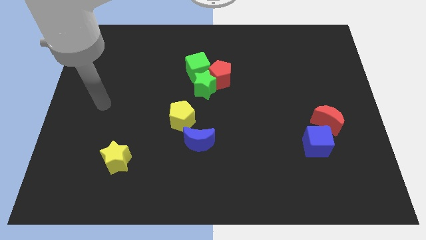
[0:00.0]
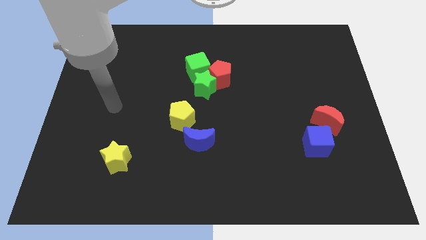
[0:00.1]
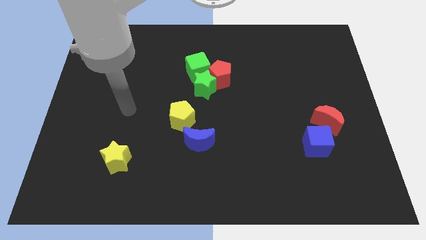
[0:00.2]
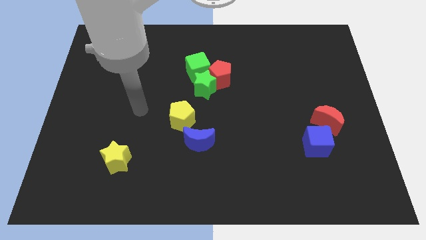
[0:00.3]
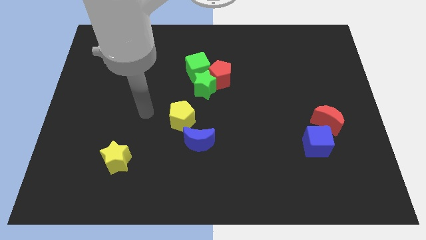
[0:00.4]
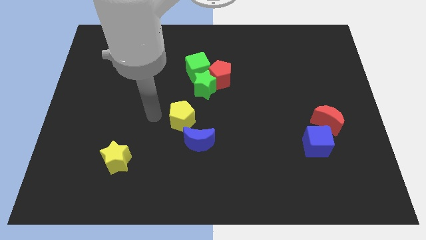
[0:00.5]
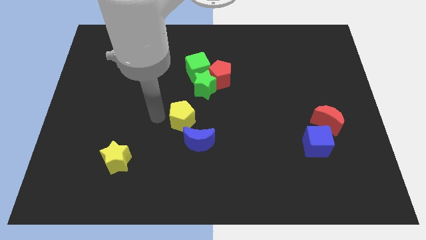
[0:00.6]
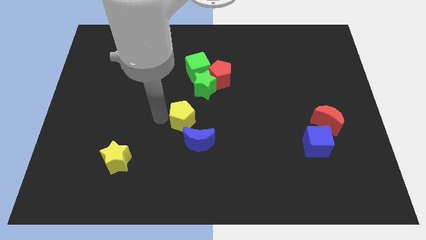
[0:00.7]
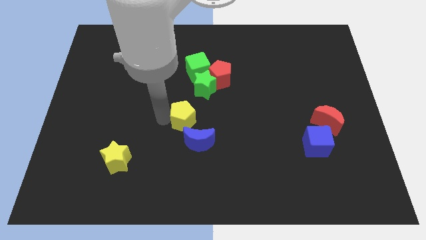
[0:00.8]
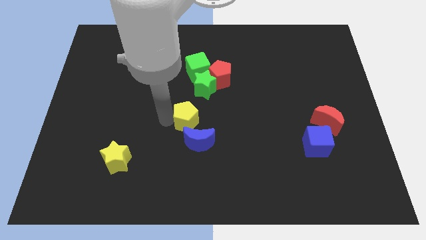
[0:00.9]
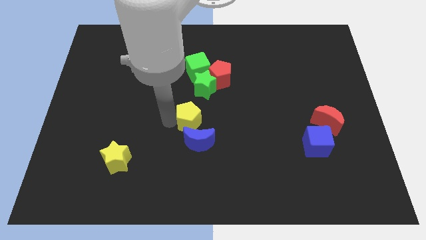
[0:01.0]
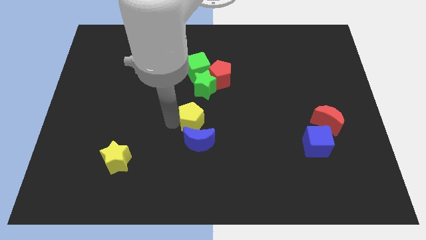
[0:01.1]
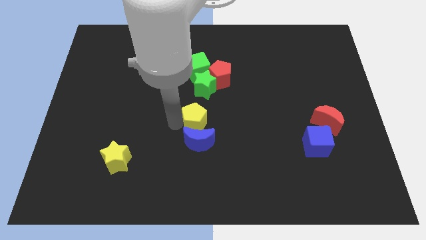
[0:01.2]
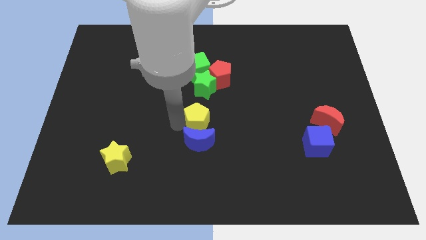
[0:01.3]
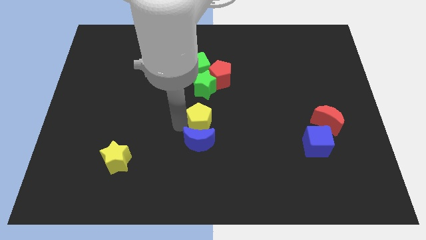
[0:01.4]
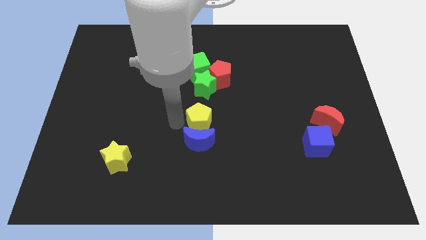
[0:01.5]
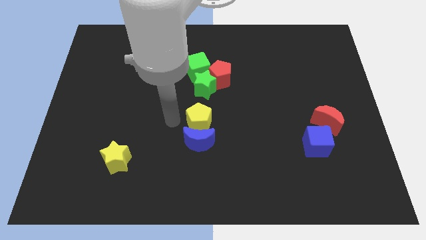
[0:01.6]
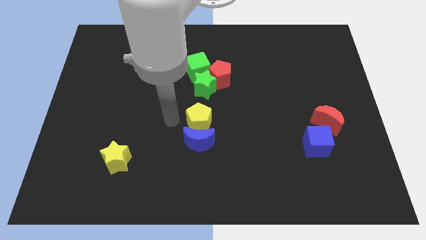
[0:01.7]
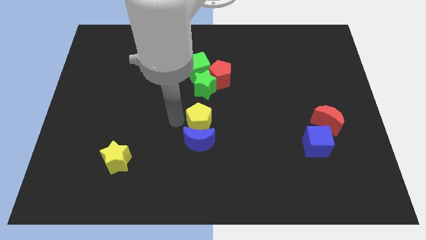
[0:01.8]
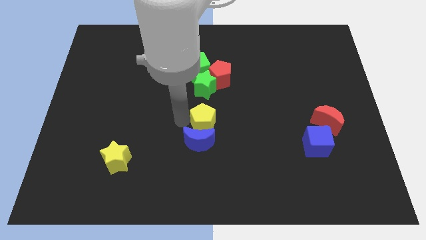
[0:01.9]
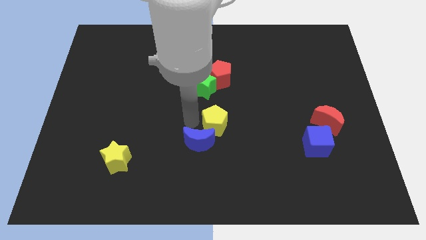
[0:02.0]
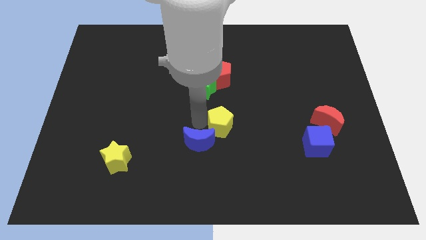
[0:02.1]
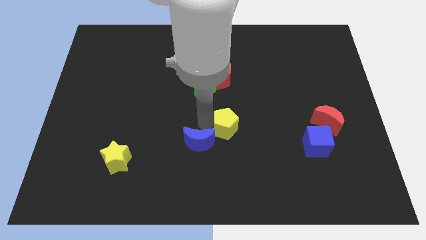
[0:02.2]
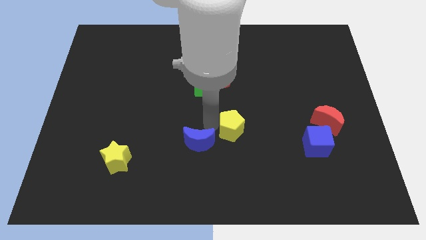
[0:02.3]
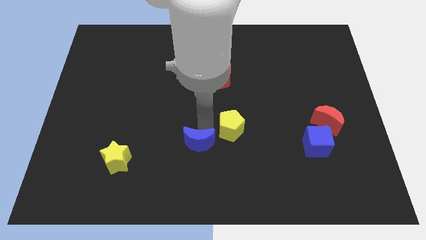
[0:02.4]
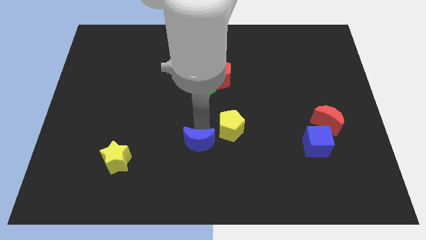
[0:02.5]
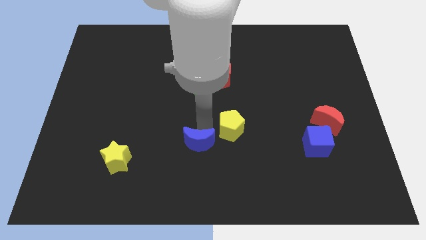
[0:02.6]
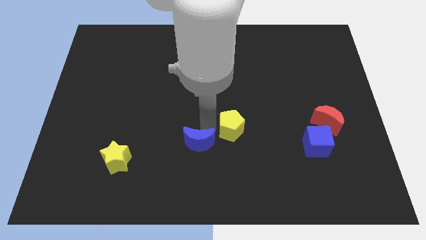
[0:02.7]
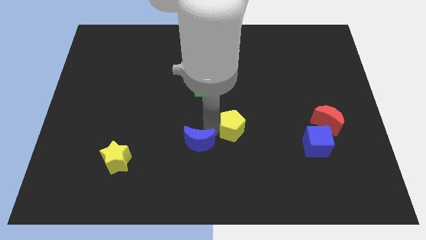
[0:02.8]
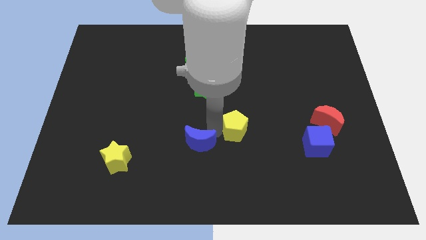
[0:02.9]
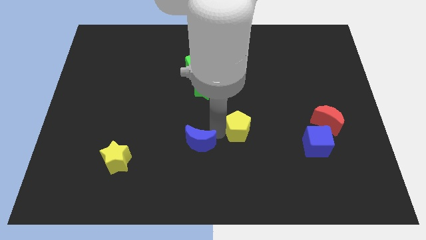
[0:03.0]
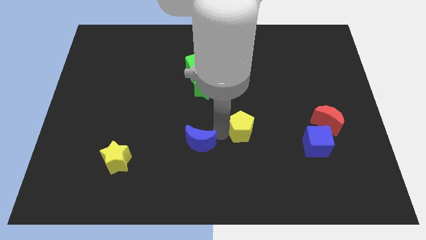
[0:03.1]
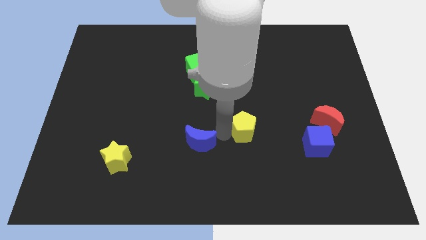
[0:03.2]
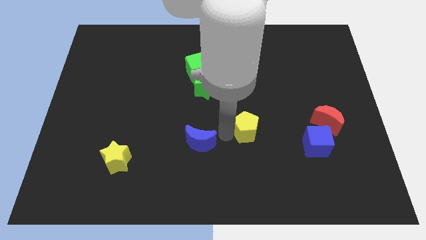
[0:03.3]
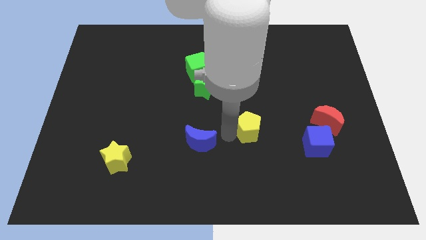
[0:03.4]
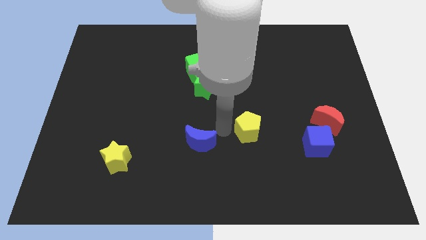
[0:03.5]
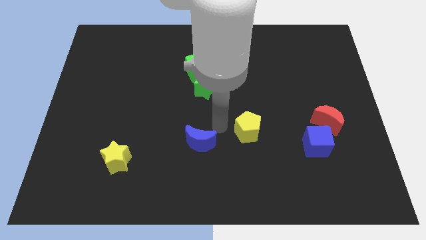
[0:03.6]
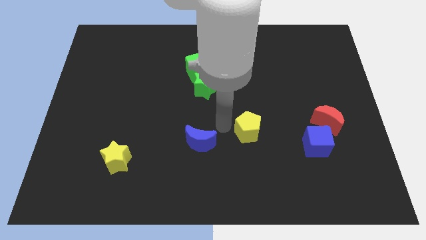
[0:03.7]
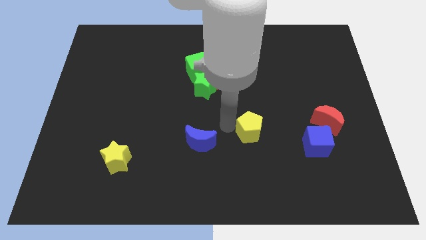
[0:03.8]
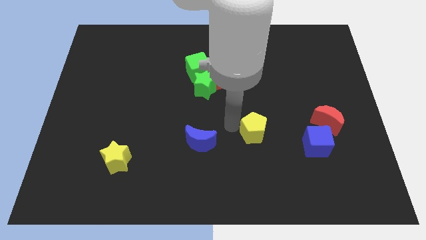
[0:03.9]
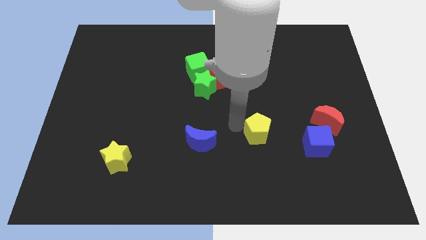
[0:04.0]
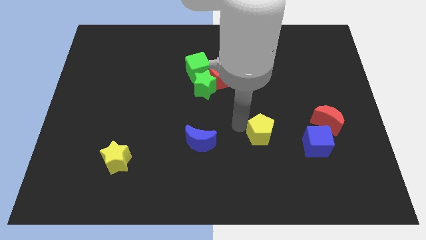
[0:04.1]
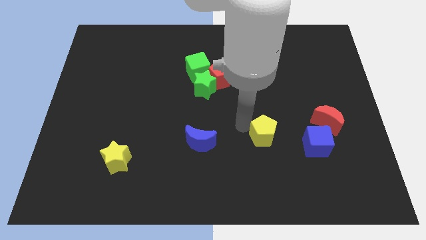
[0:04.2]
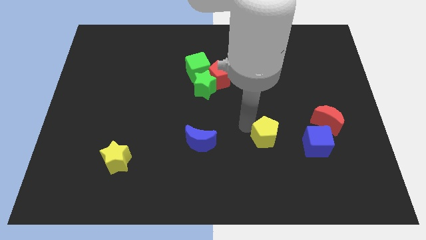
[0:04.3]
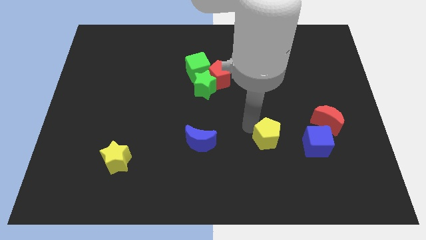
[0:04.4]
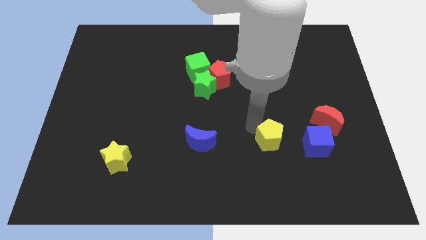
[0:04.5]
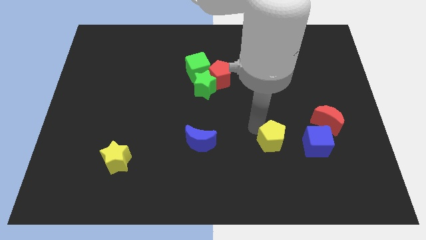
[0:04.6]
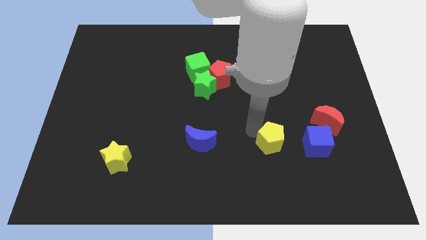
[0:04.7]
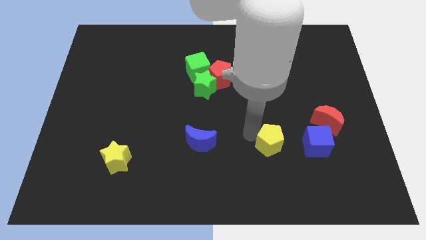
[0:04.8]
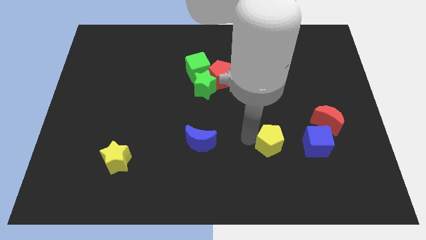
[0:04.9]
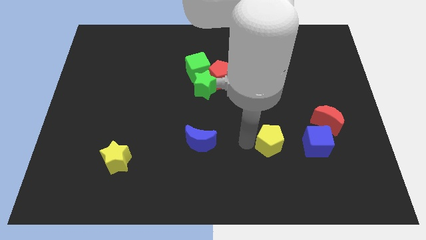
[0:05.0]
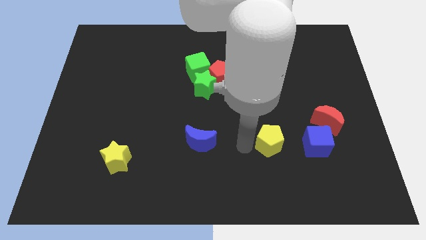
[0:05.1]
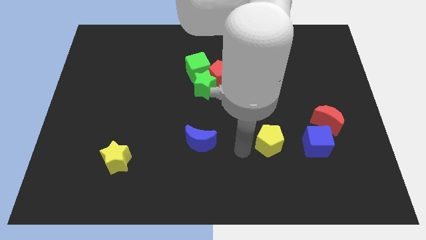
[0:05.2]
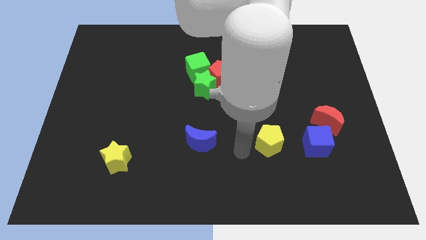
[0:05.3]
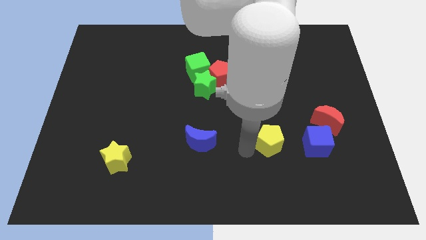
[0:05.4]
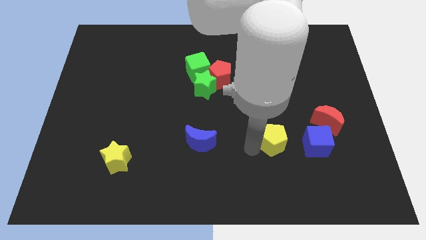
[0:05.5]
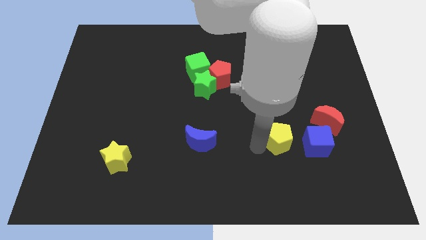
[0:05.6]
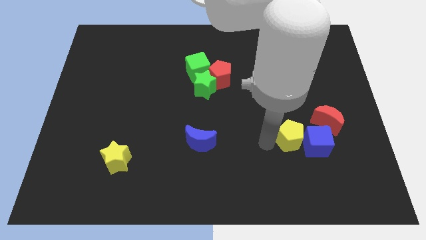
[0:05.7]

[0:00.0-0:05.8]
move the yellow pentagon towards the blue cube

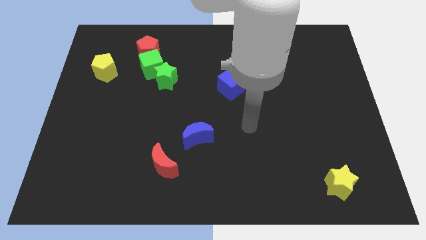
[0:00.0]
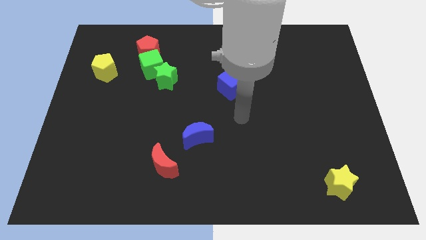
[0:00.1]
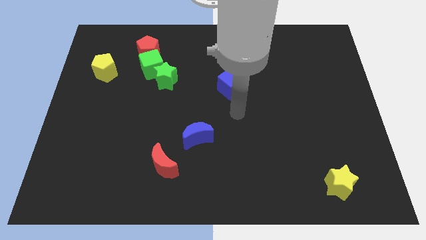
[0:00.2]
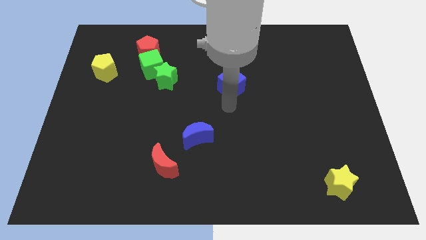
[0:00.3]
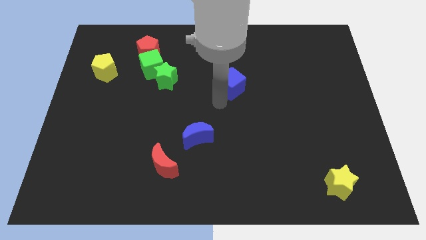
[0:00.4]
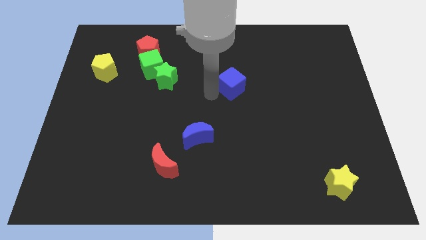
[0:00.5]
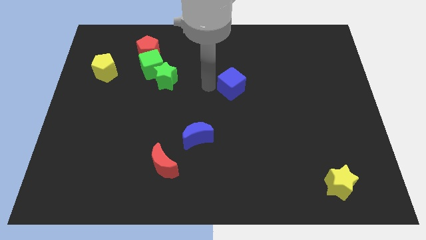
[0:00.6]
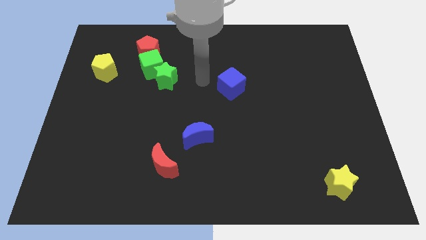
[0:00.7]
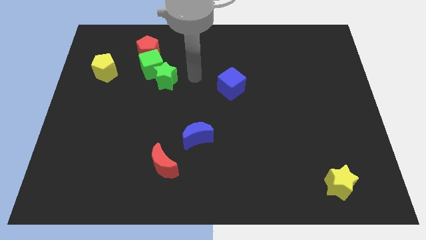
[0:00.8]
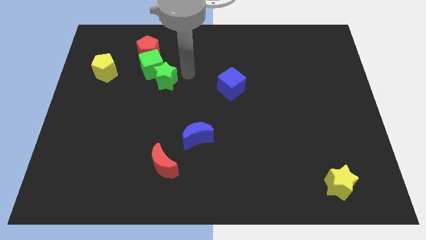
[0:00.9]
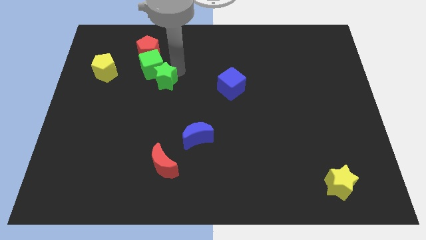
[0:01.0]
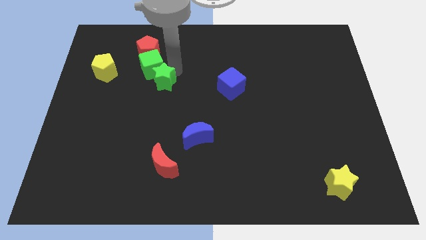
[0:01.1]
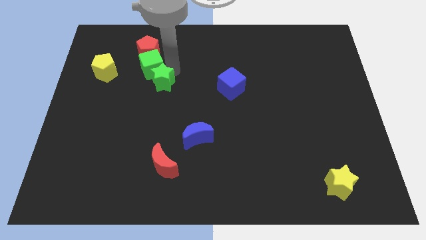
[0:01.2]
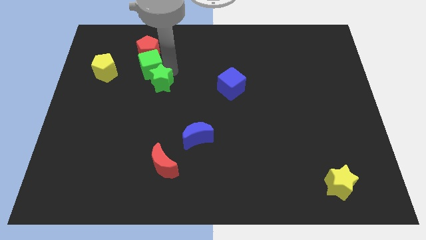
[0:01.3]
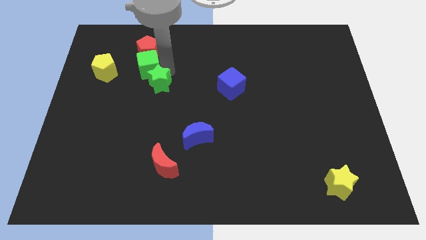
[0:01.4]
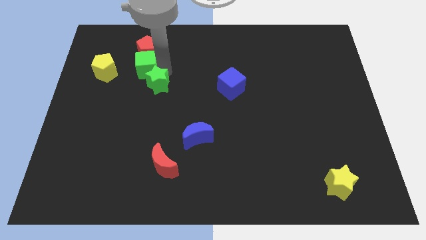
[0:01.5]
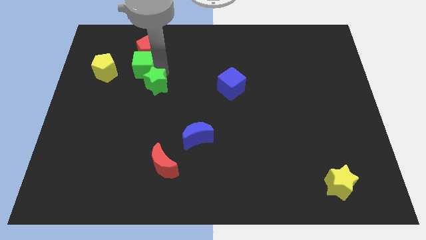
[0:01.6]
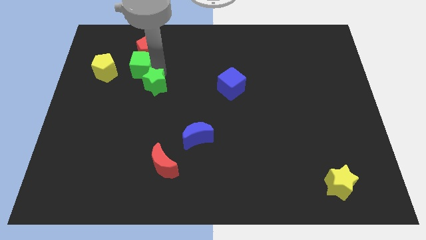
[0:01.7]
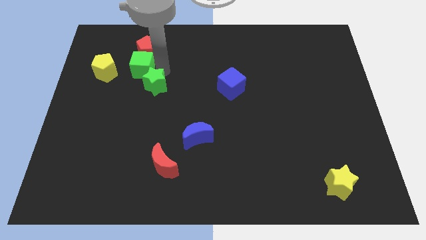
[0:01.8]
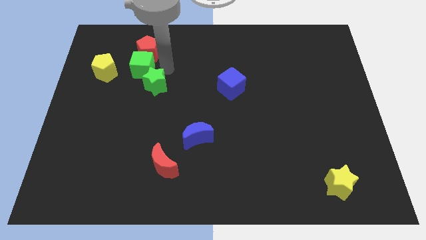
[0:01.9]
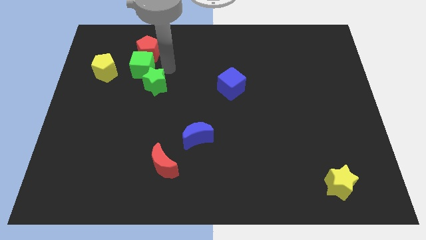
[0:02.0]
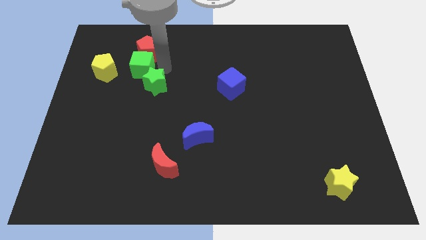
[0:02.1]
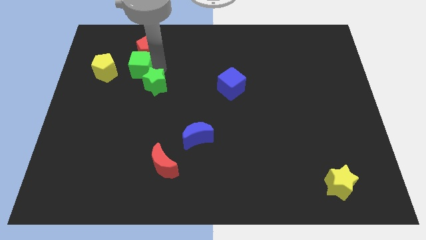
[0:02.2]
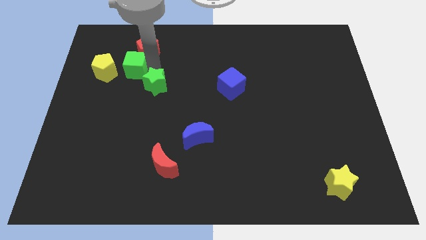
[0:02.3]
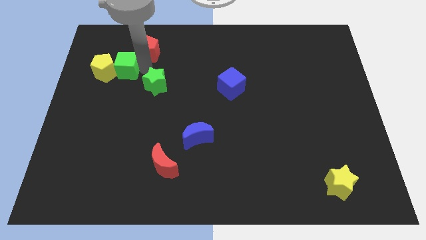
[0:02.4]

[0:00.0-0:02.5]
move the green cube next to the yellow pentagon
